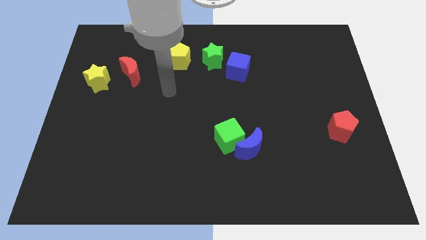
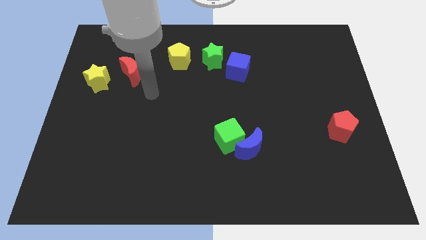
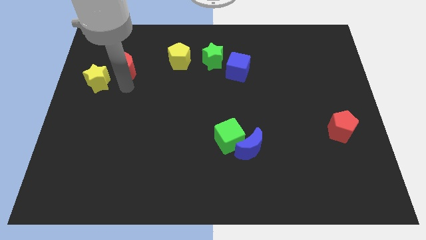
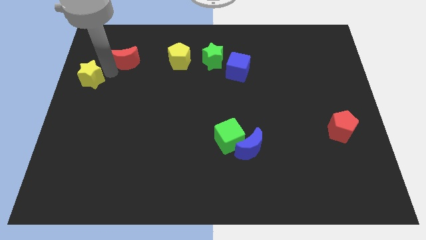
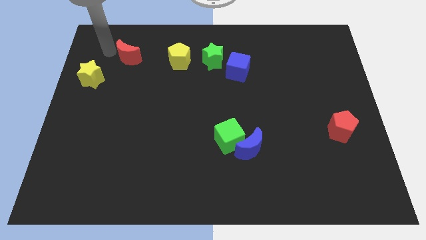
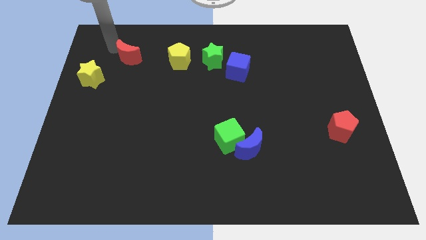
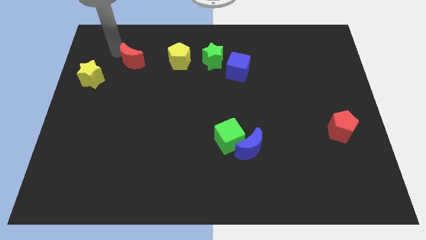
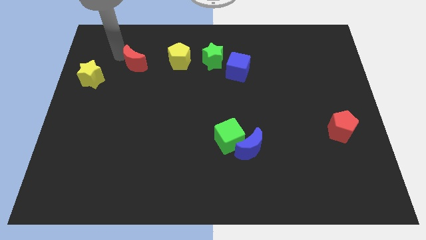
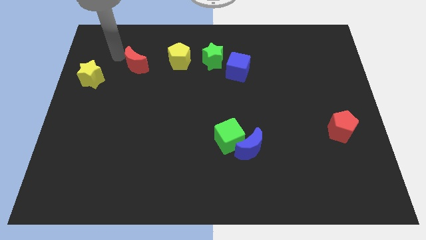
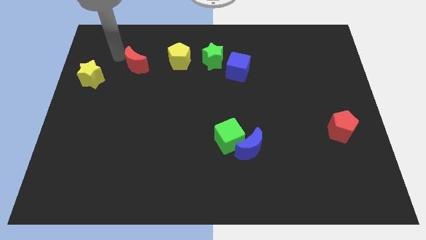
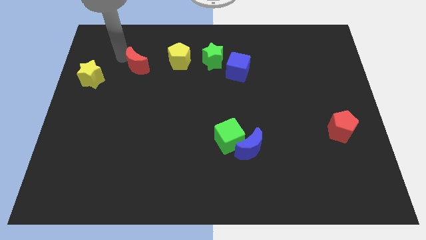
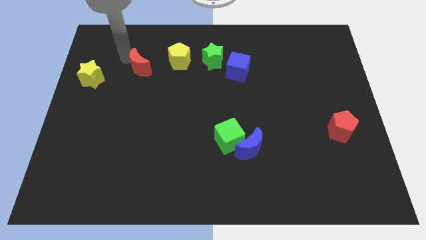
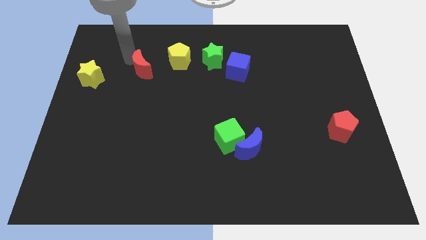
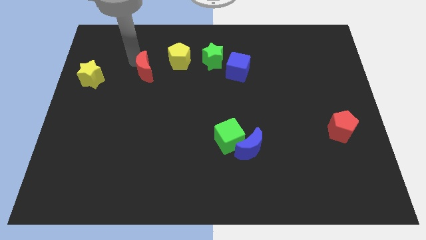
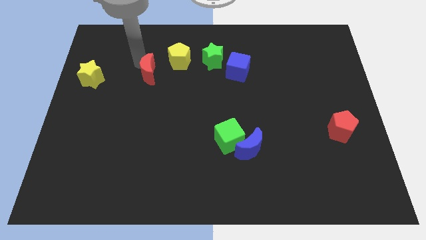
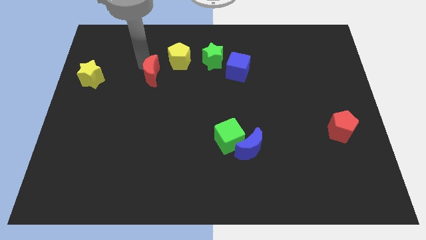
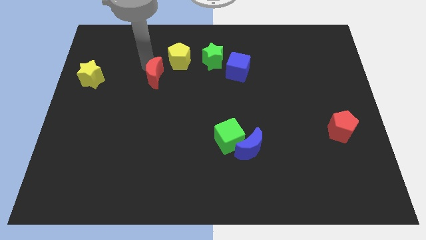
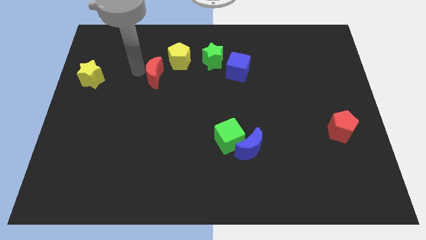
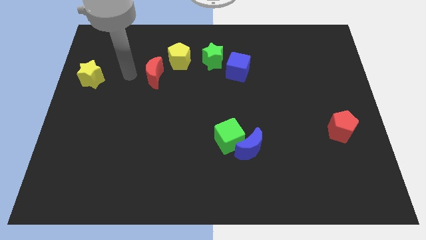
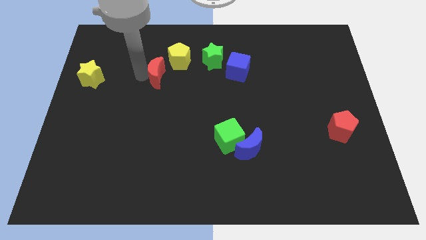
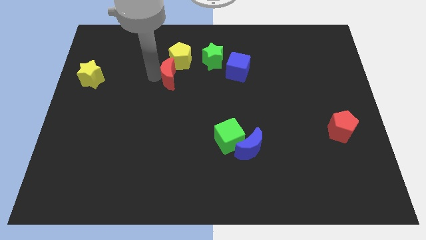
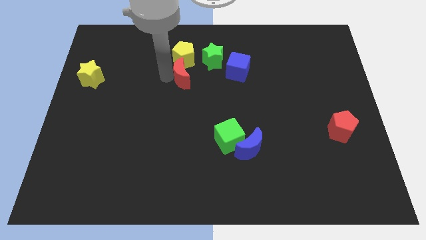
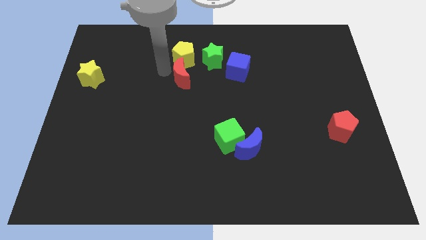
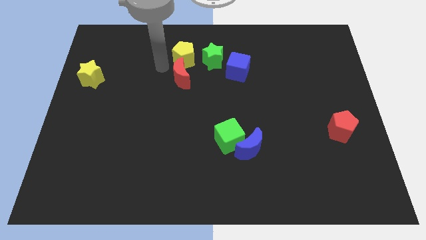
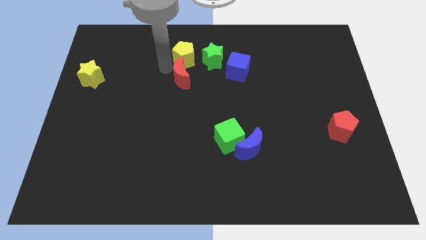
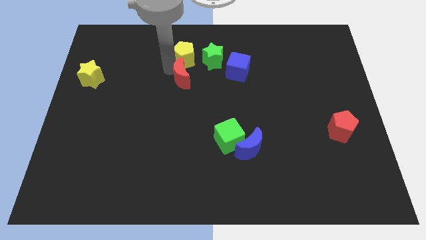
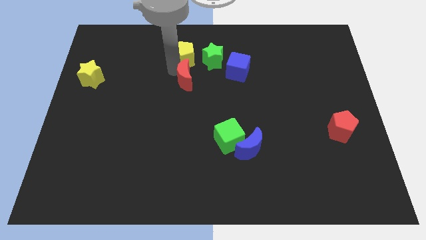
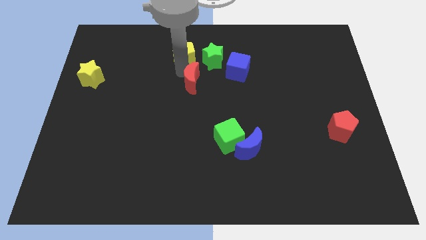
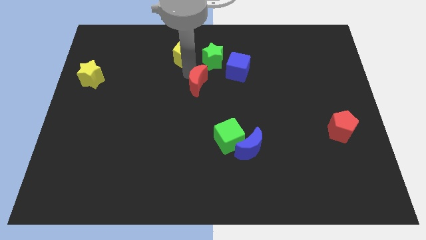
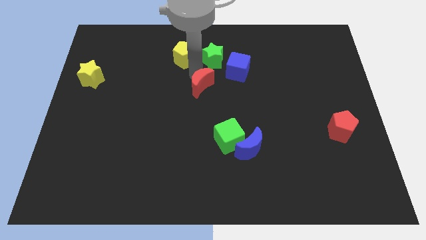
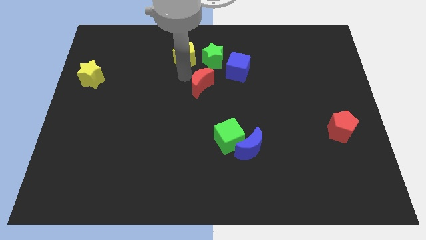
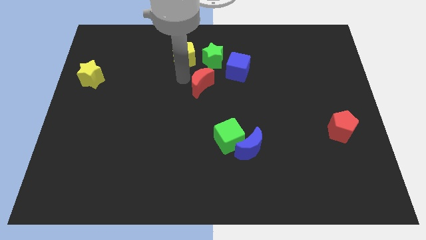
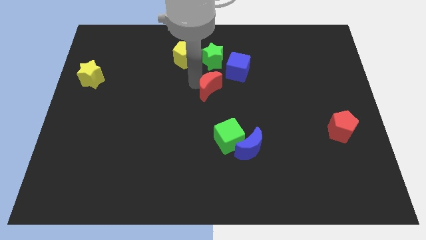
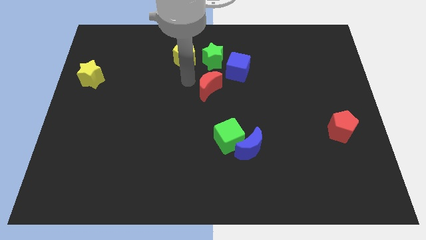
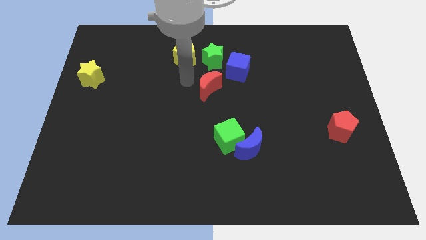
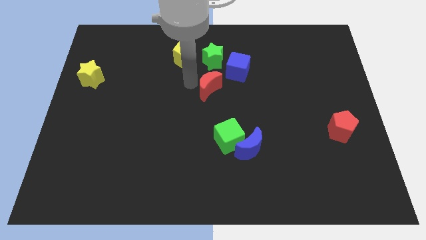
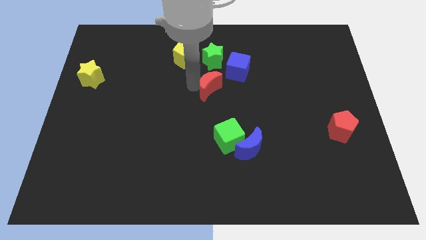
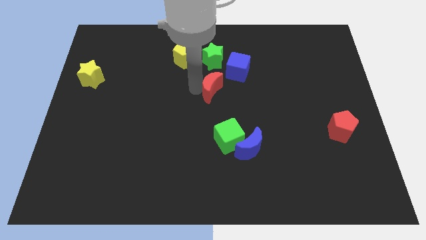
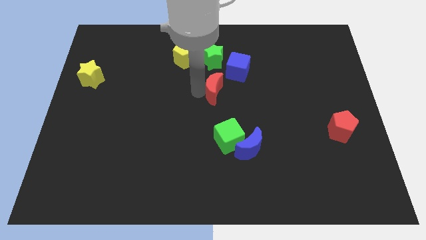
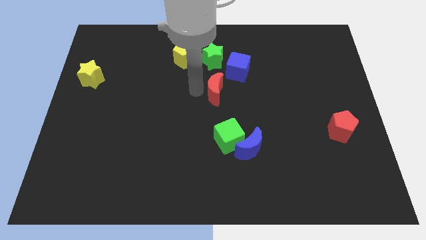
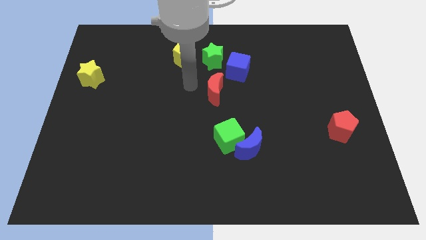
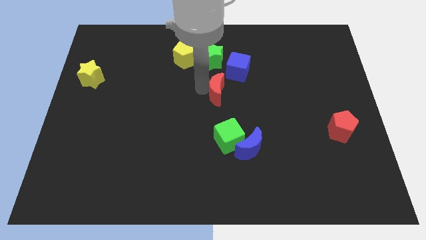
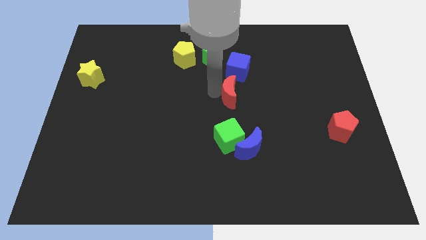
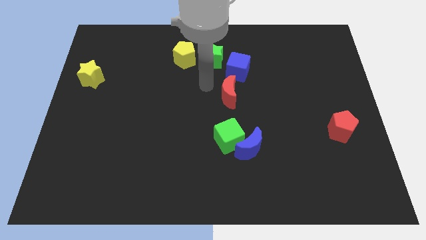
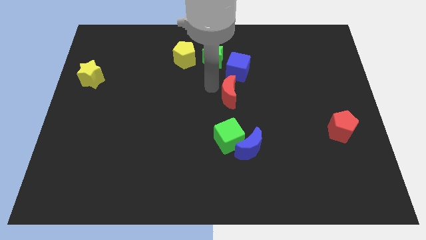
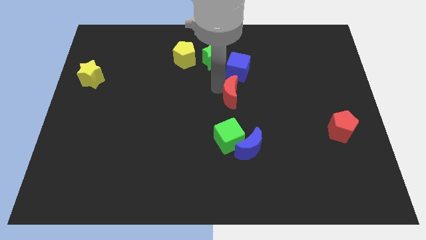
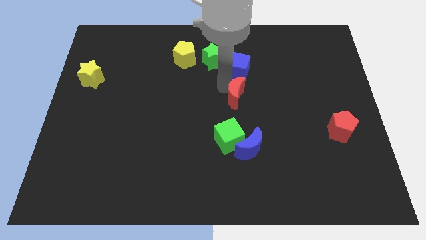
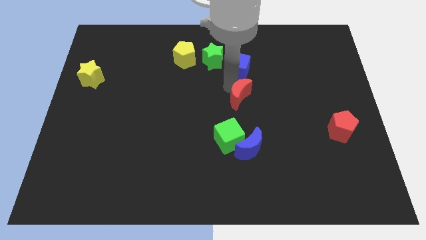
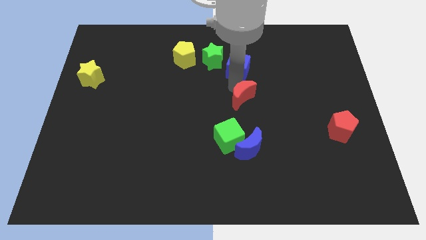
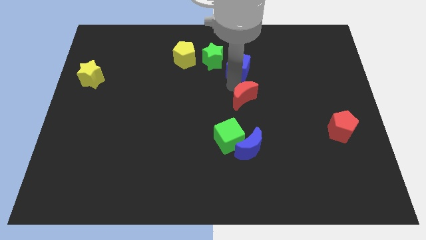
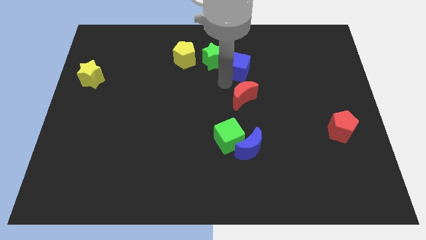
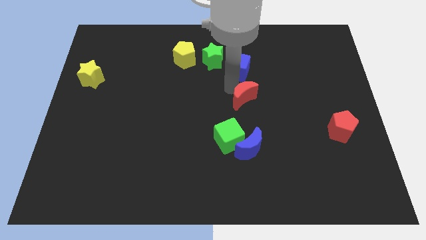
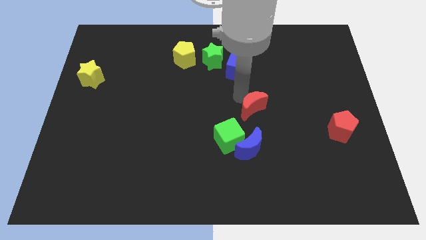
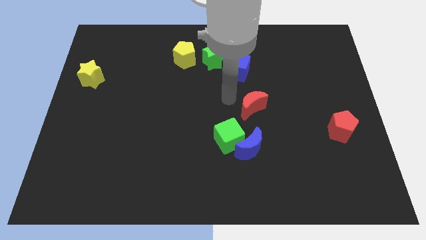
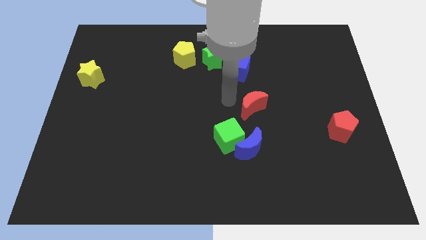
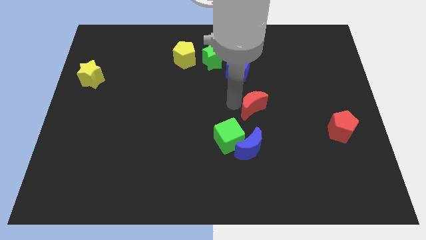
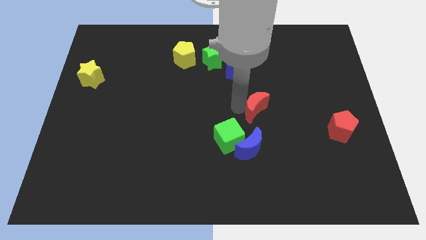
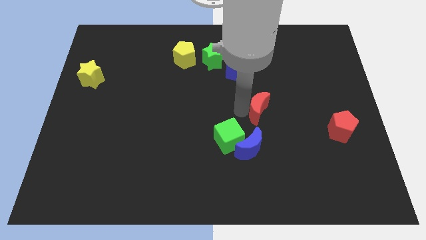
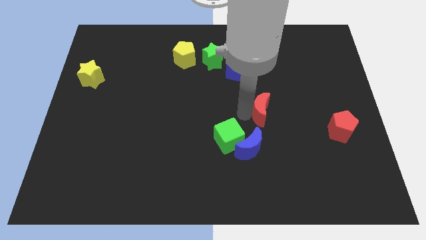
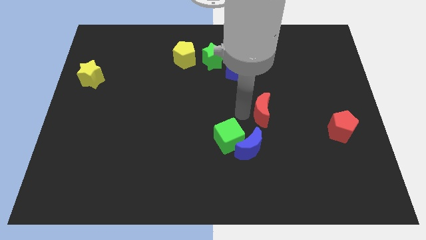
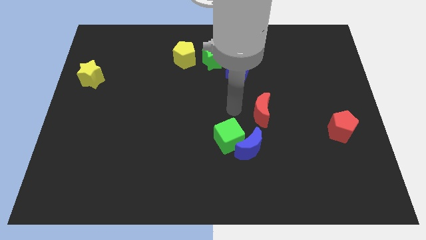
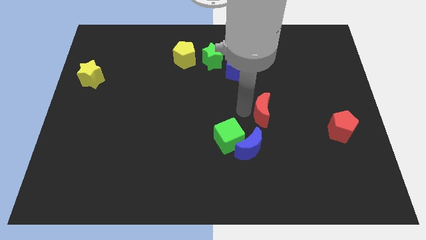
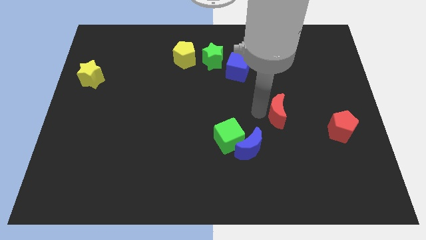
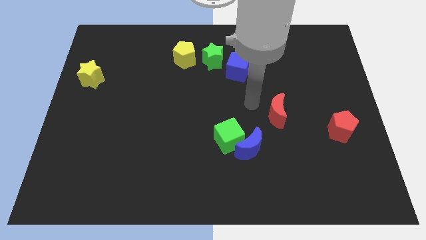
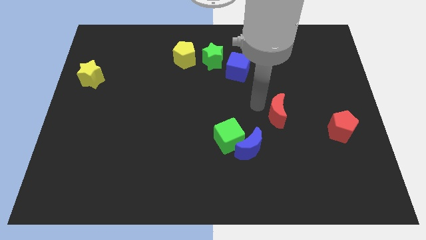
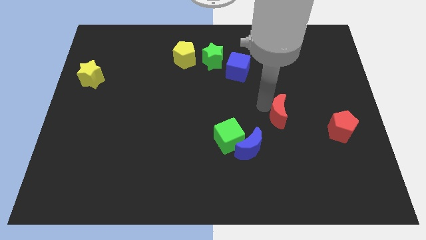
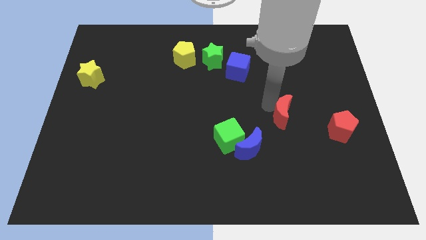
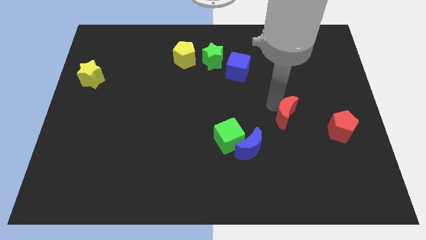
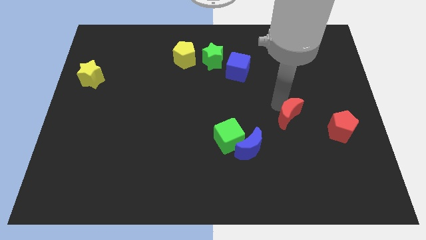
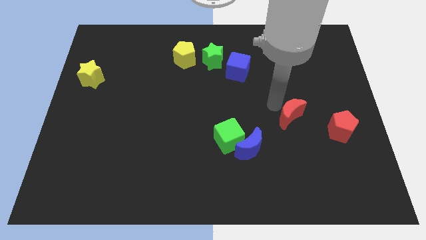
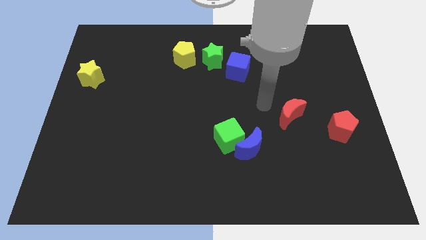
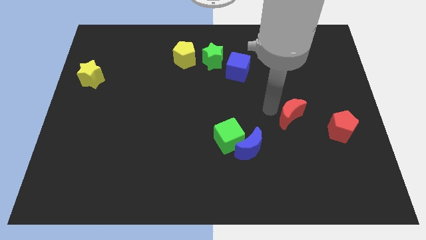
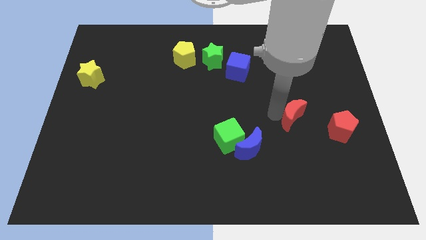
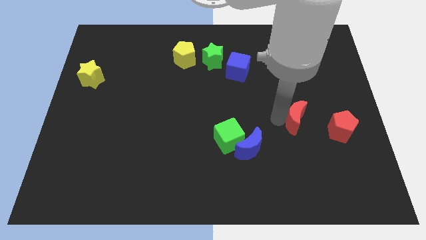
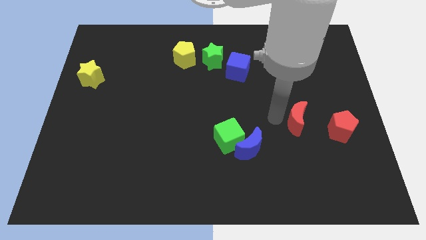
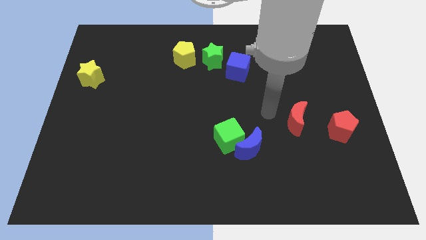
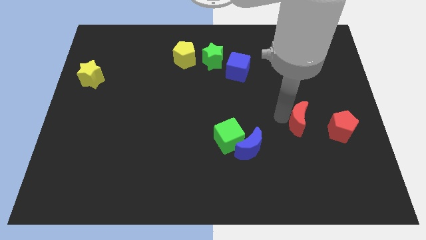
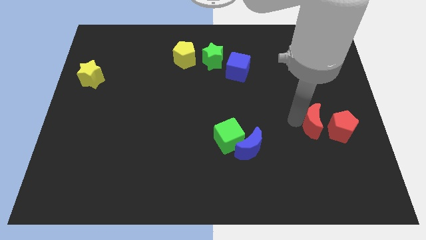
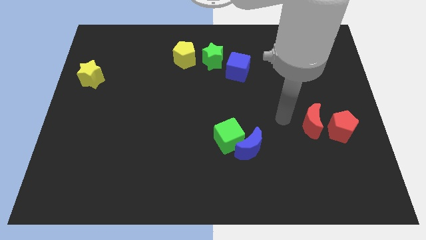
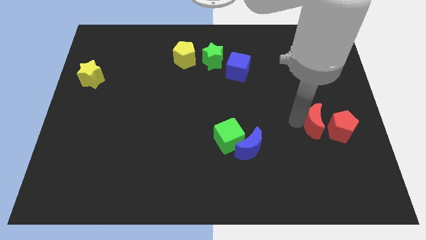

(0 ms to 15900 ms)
push the red moon towards the red pentagon
